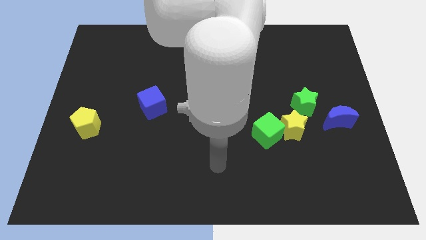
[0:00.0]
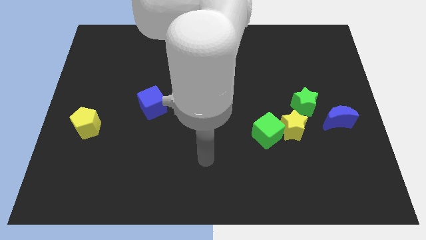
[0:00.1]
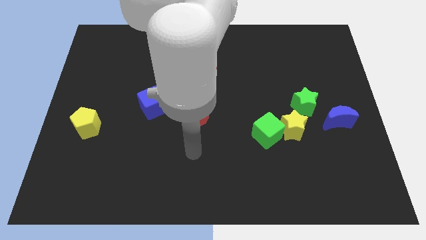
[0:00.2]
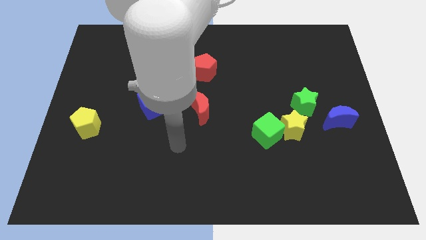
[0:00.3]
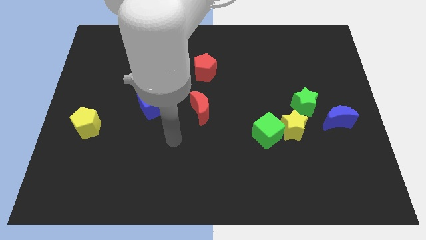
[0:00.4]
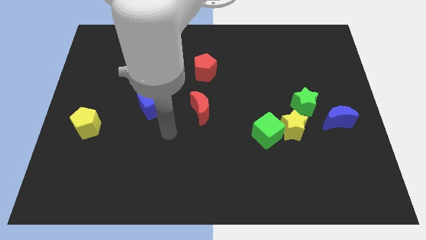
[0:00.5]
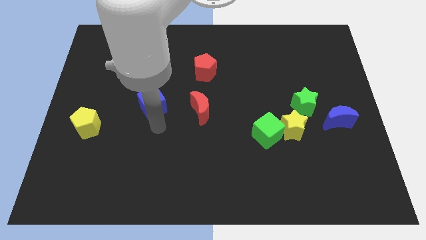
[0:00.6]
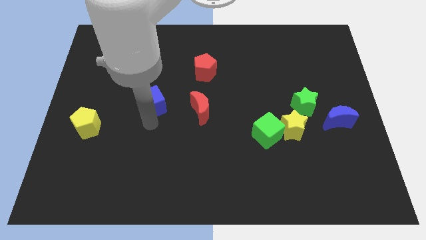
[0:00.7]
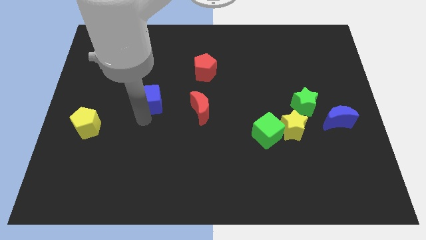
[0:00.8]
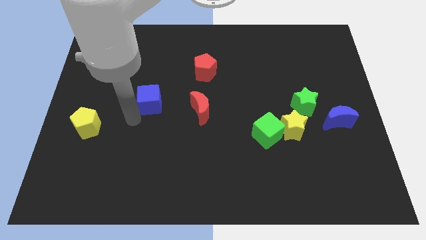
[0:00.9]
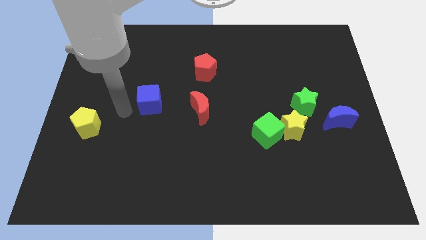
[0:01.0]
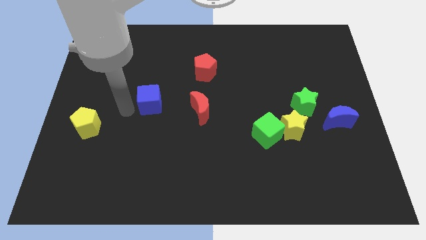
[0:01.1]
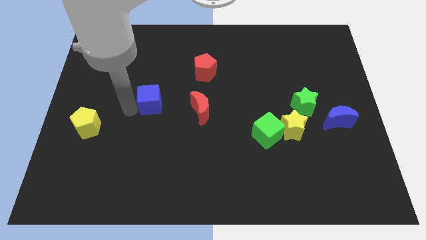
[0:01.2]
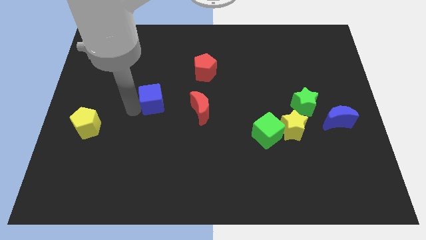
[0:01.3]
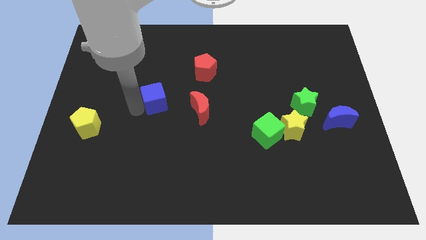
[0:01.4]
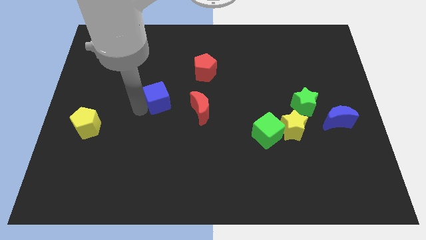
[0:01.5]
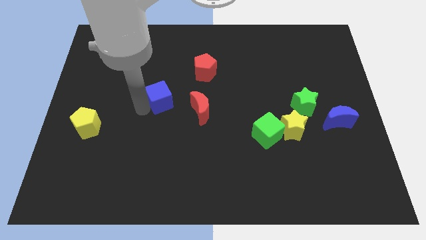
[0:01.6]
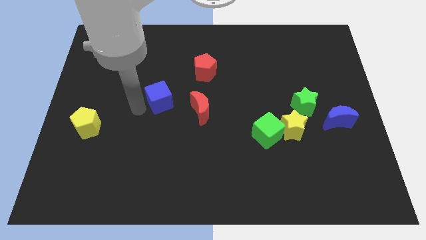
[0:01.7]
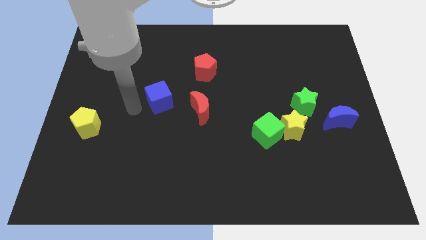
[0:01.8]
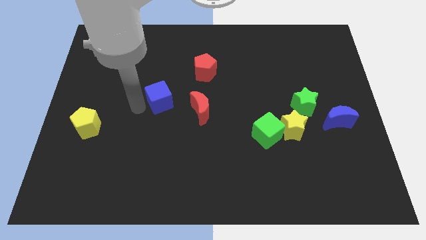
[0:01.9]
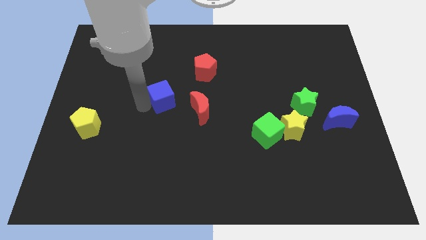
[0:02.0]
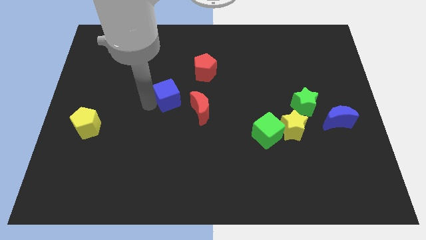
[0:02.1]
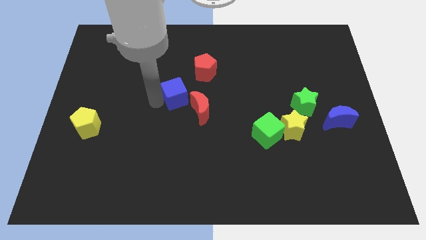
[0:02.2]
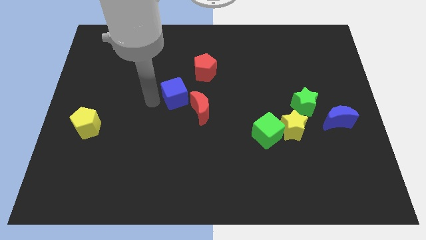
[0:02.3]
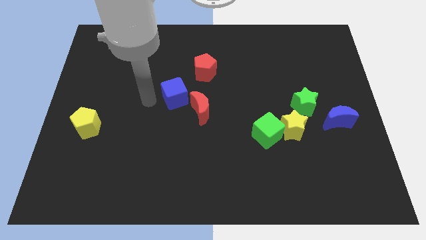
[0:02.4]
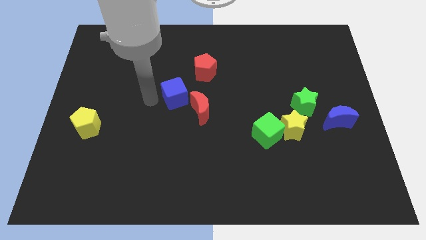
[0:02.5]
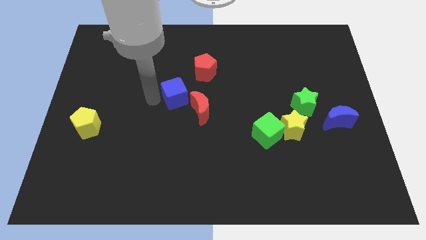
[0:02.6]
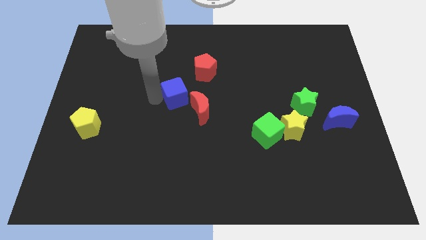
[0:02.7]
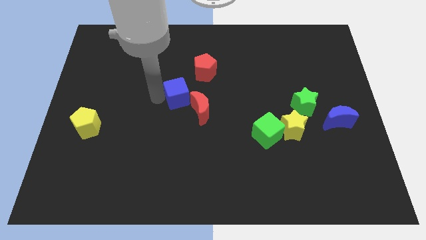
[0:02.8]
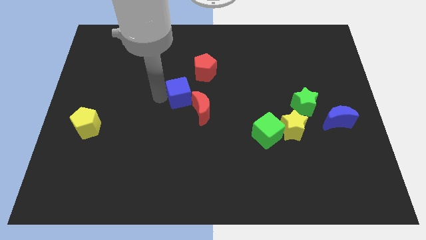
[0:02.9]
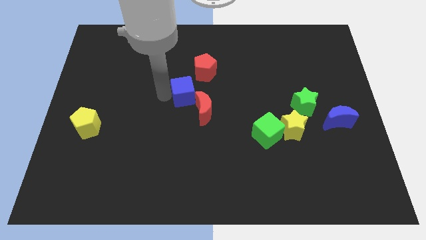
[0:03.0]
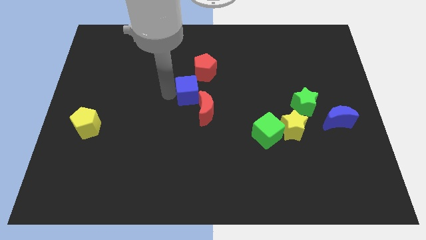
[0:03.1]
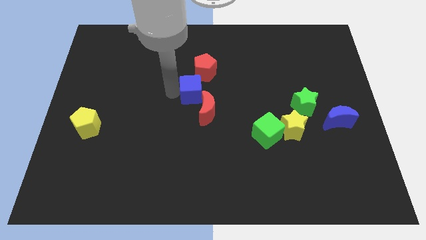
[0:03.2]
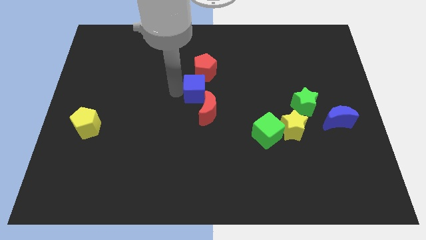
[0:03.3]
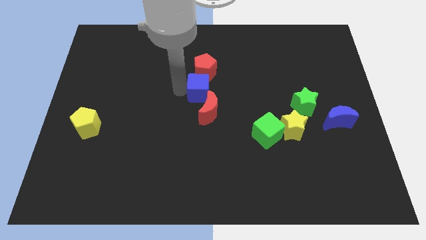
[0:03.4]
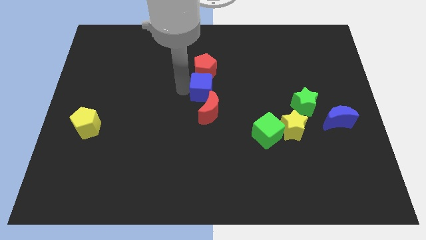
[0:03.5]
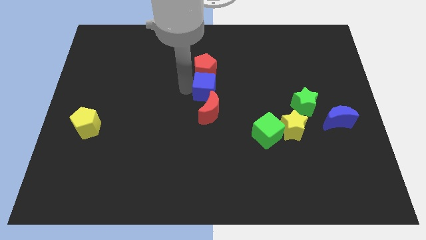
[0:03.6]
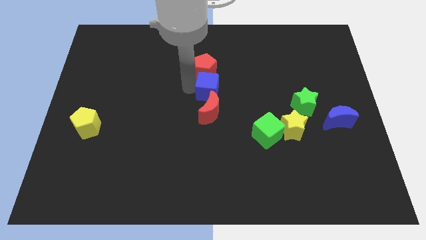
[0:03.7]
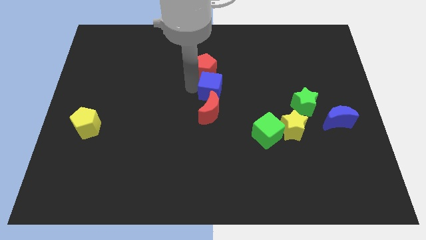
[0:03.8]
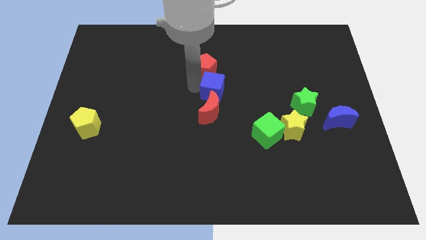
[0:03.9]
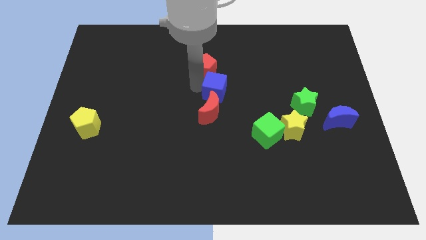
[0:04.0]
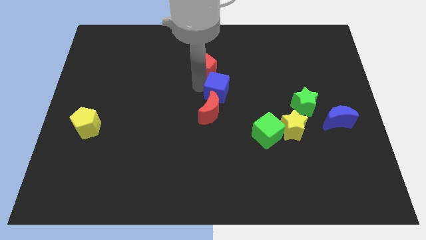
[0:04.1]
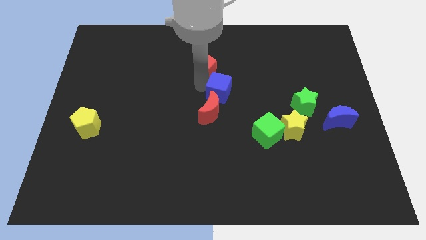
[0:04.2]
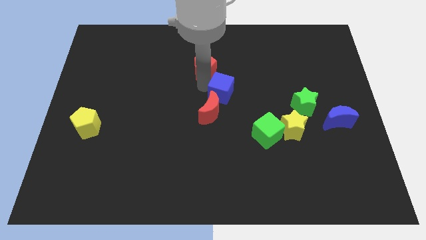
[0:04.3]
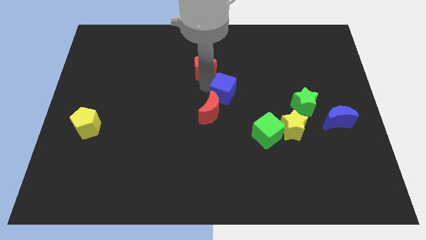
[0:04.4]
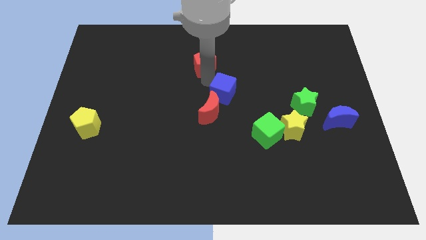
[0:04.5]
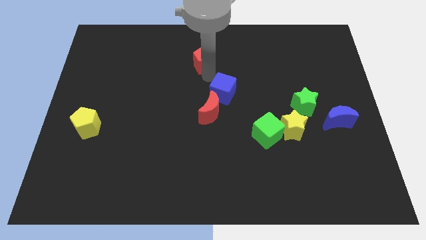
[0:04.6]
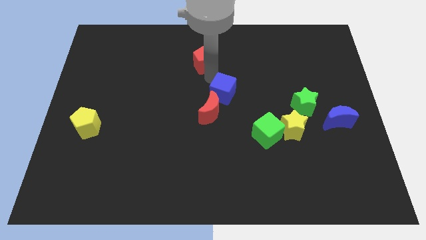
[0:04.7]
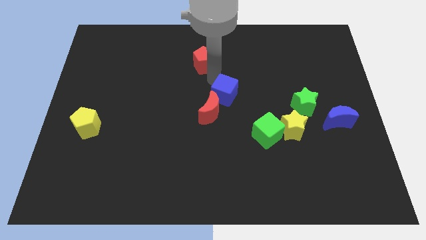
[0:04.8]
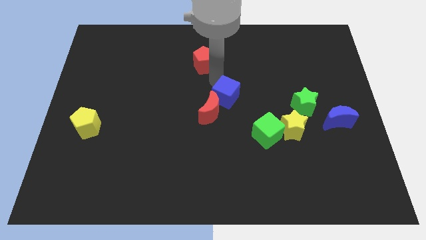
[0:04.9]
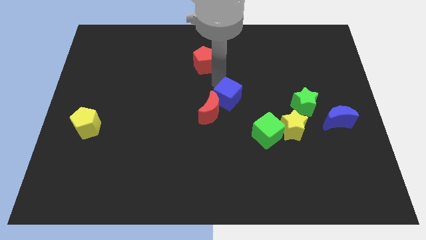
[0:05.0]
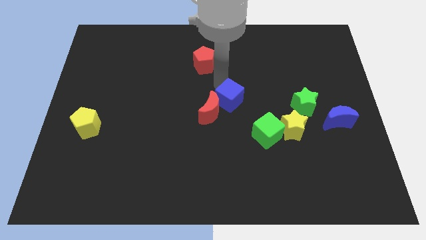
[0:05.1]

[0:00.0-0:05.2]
put the blue cube diagonally up and to the left of the green cube

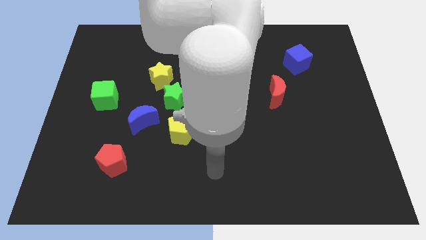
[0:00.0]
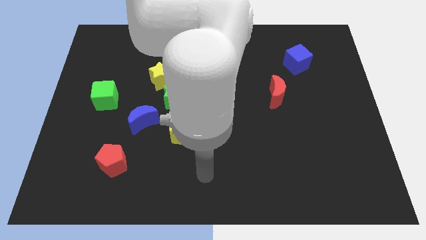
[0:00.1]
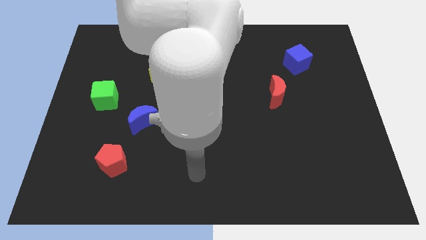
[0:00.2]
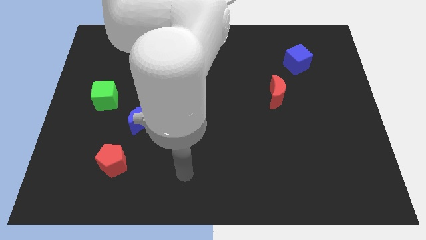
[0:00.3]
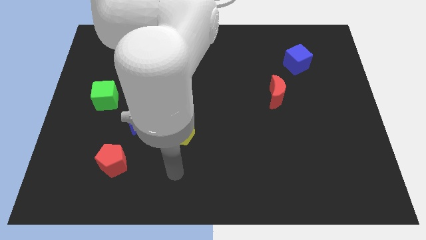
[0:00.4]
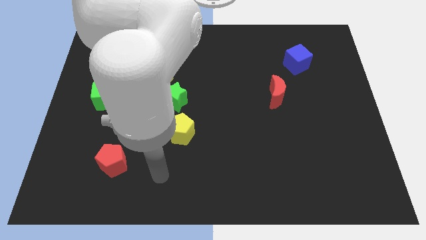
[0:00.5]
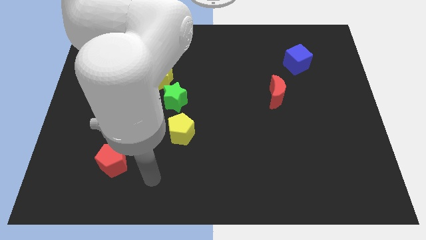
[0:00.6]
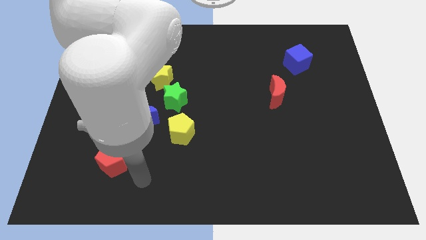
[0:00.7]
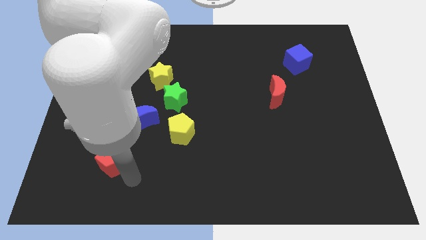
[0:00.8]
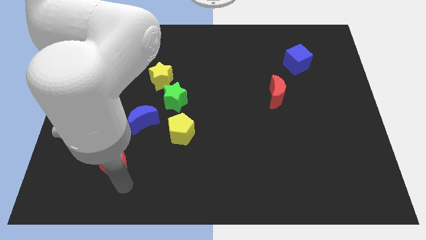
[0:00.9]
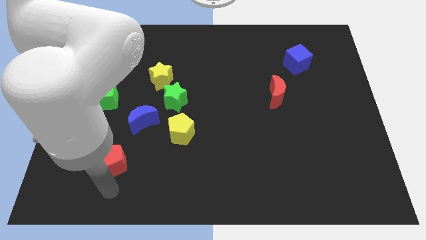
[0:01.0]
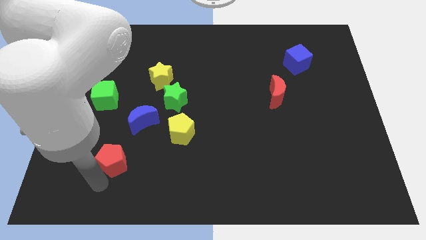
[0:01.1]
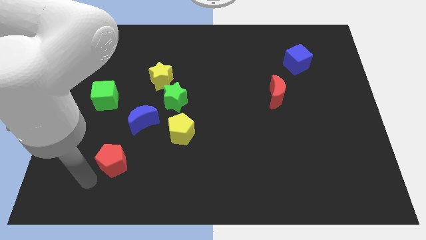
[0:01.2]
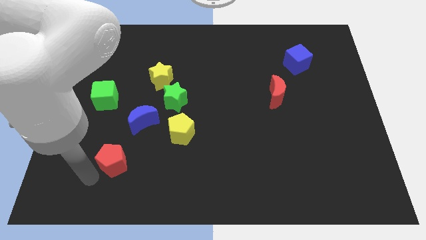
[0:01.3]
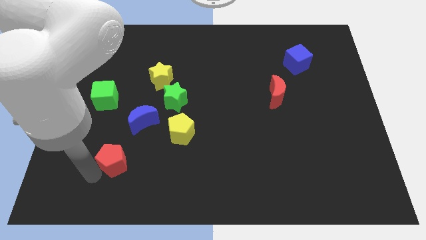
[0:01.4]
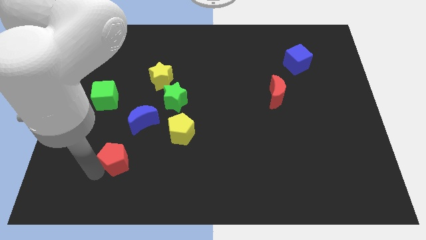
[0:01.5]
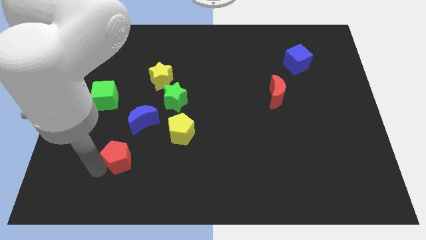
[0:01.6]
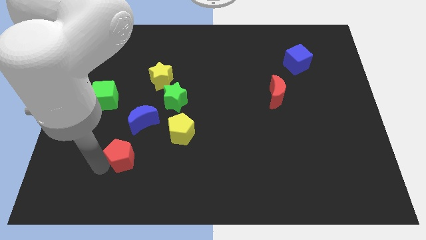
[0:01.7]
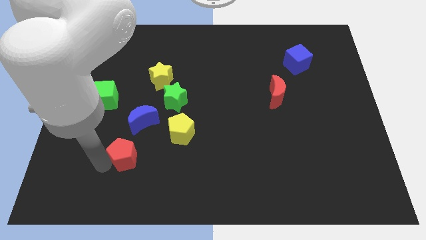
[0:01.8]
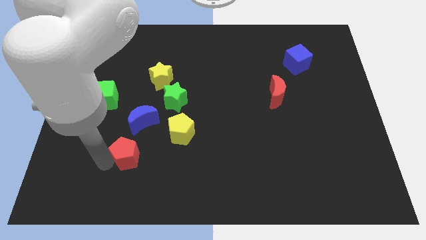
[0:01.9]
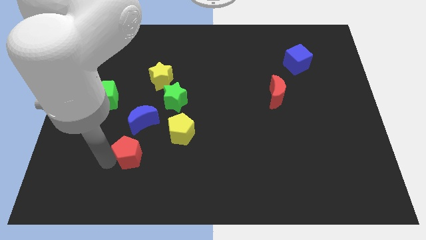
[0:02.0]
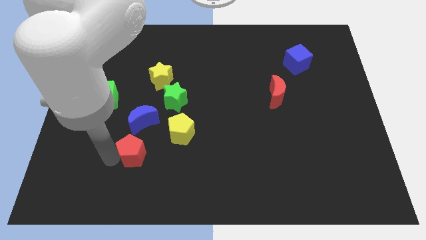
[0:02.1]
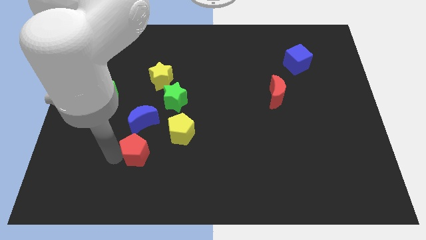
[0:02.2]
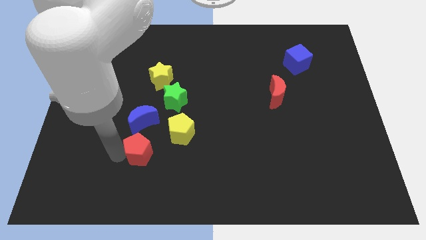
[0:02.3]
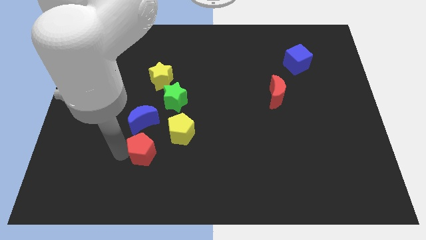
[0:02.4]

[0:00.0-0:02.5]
slide the red pentagon to the bottom right of the blue moon
